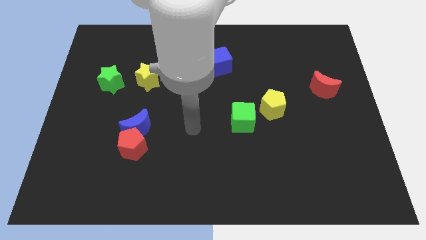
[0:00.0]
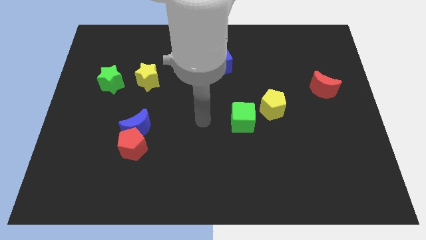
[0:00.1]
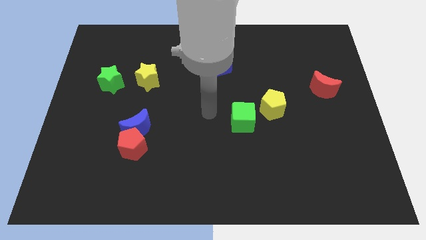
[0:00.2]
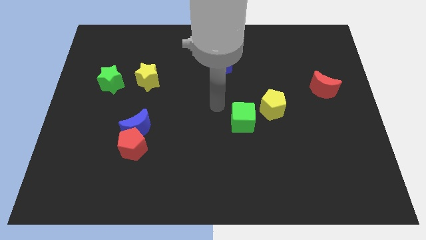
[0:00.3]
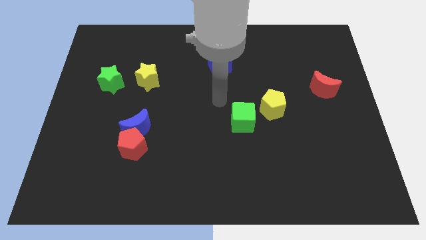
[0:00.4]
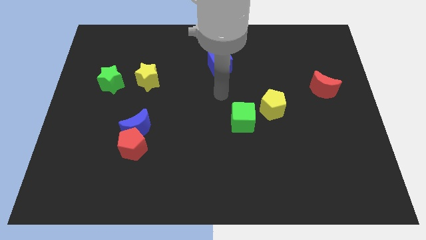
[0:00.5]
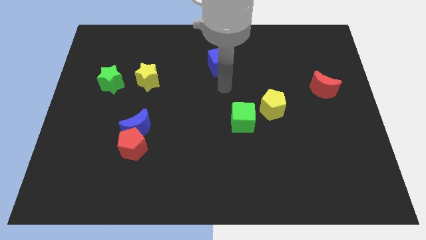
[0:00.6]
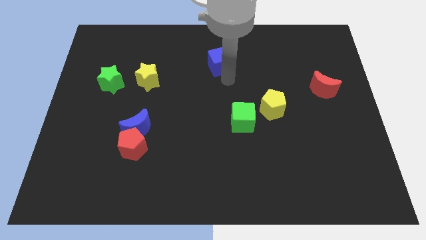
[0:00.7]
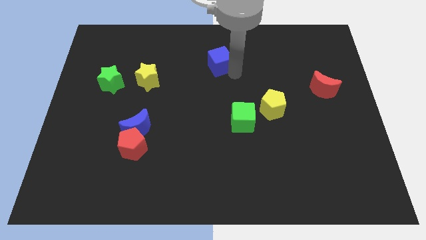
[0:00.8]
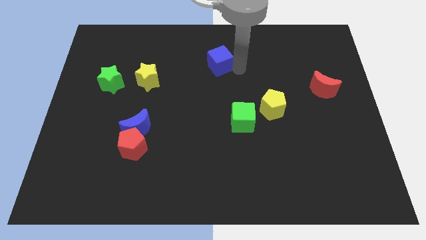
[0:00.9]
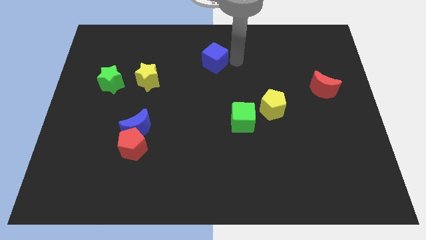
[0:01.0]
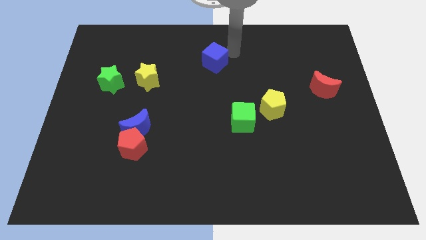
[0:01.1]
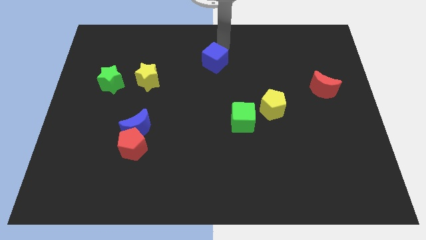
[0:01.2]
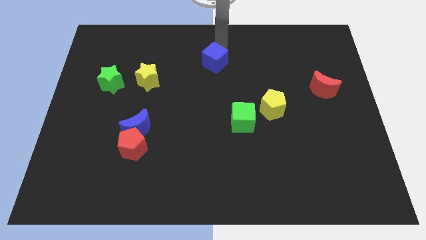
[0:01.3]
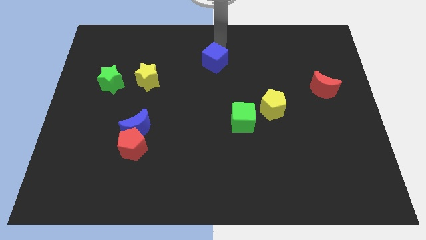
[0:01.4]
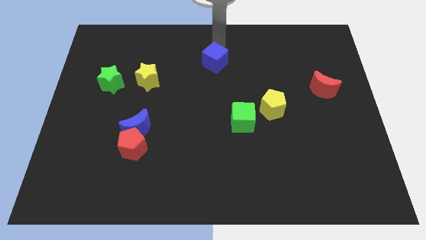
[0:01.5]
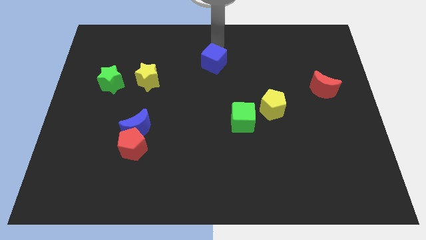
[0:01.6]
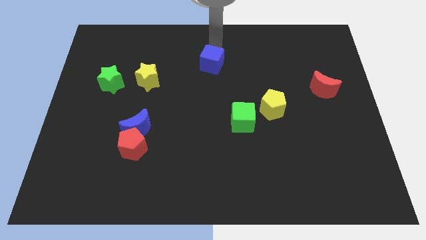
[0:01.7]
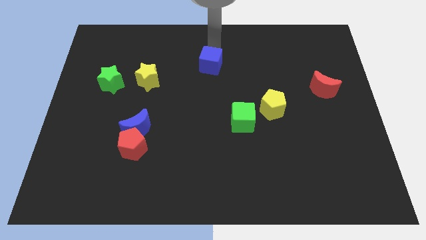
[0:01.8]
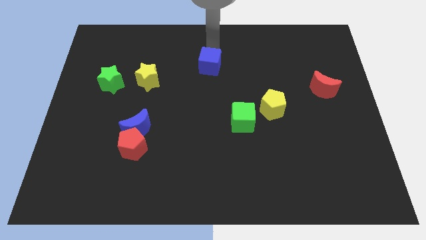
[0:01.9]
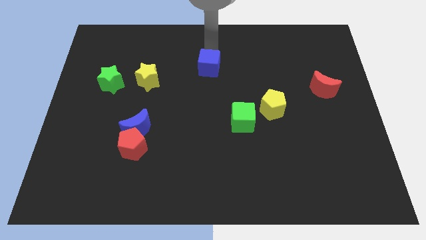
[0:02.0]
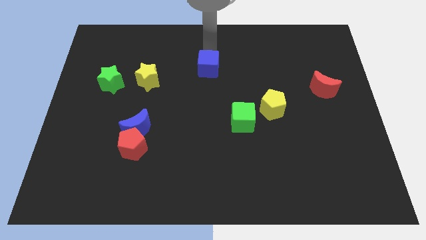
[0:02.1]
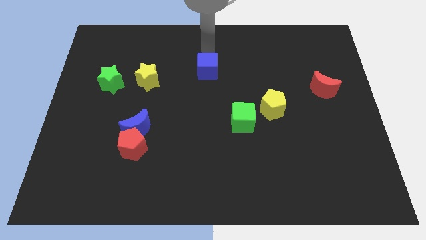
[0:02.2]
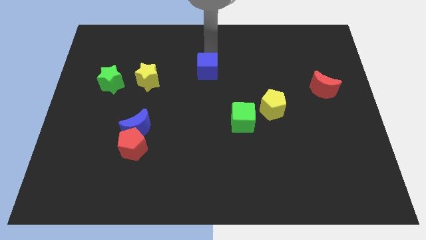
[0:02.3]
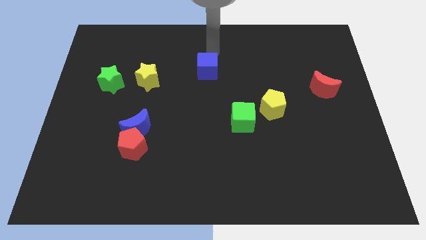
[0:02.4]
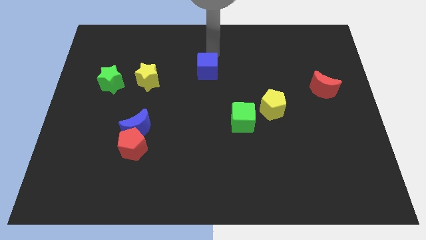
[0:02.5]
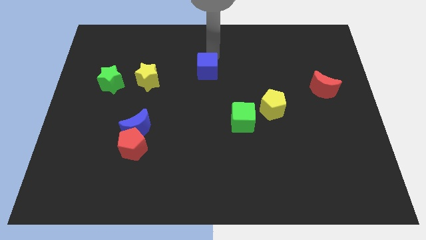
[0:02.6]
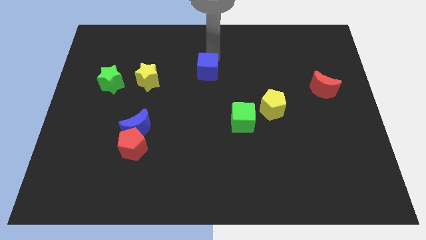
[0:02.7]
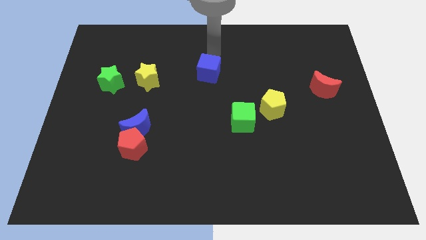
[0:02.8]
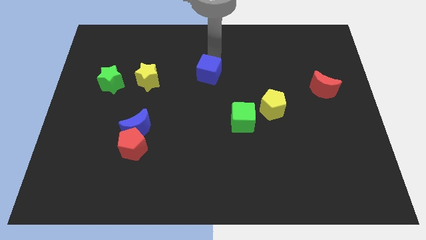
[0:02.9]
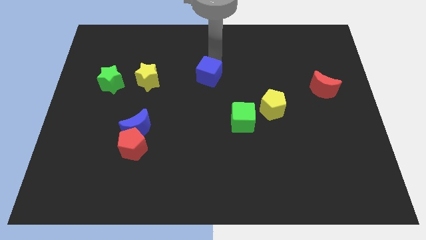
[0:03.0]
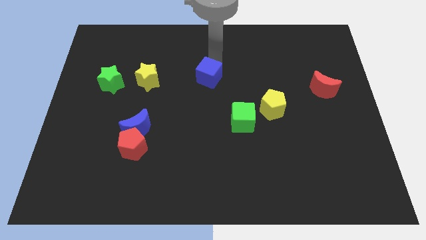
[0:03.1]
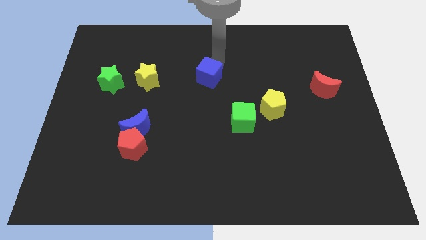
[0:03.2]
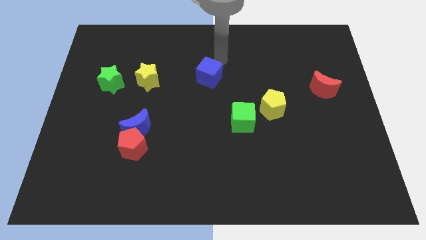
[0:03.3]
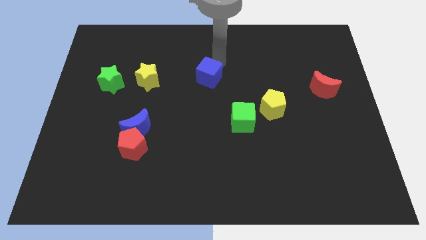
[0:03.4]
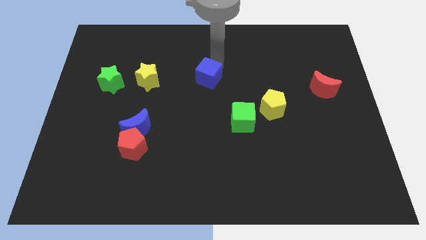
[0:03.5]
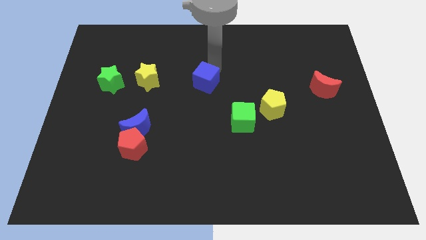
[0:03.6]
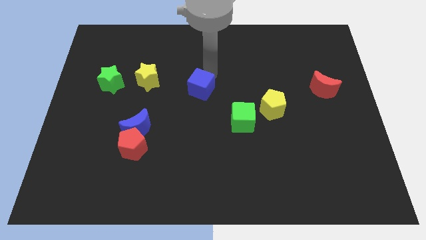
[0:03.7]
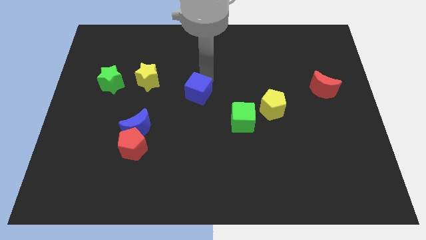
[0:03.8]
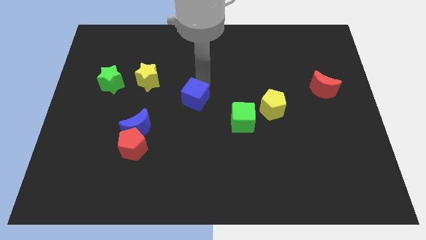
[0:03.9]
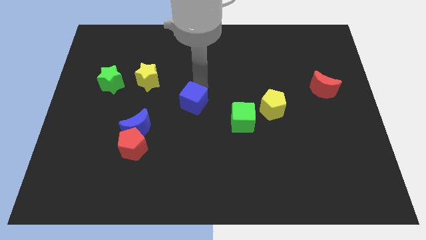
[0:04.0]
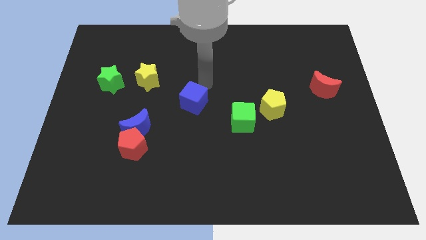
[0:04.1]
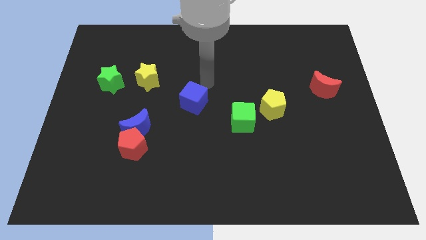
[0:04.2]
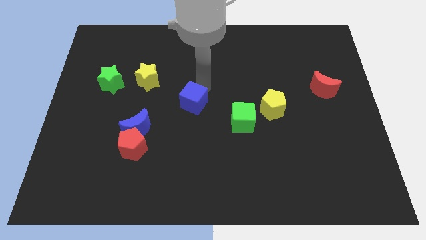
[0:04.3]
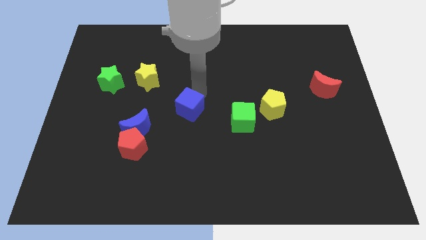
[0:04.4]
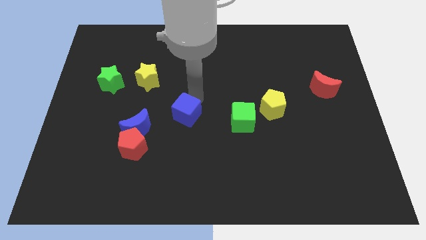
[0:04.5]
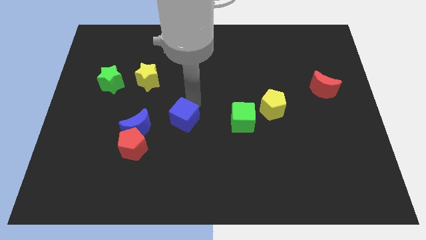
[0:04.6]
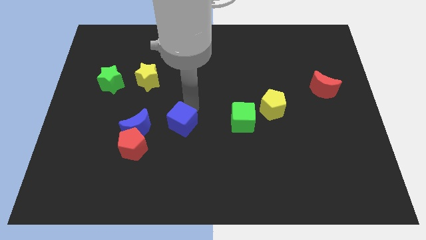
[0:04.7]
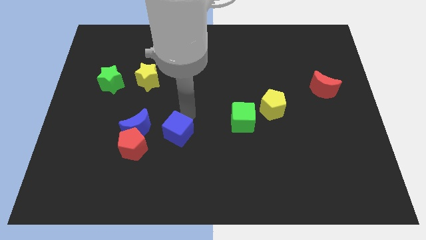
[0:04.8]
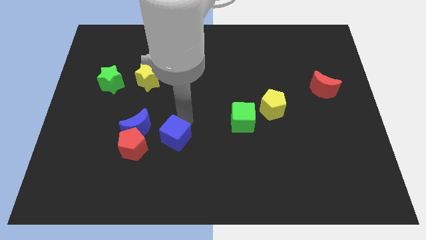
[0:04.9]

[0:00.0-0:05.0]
move the blue cube diagonally down and to the right of the blue moon

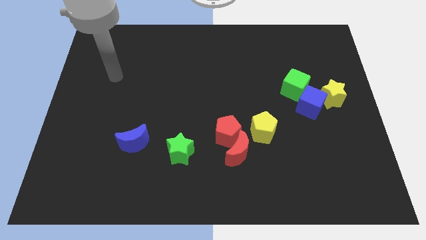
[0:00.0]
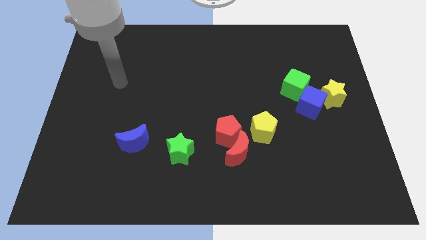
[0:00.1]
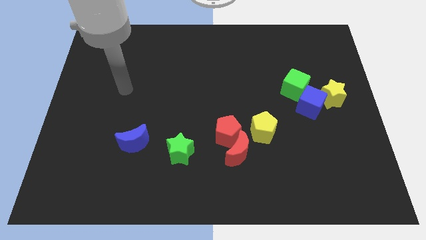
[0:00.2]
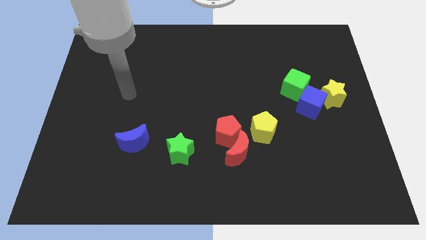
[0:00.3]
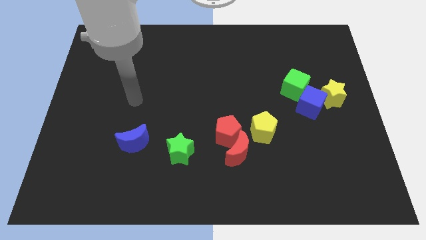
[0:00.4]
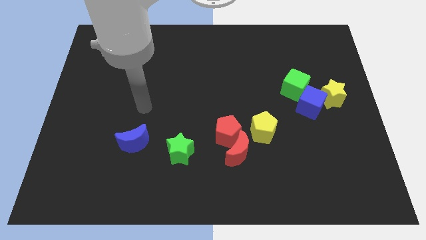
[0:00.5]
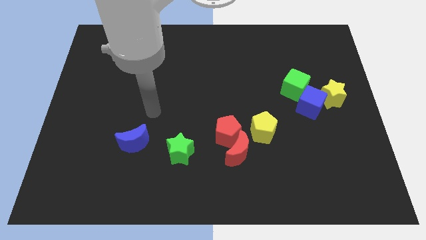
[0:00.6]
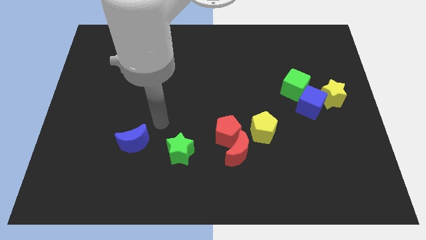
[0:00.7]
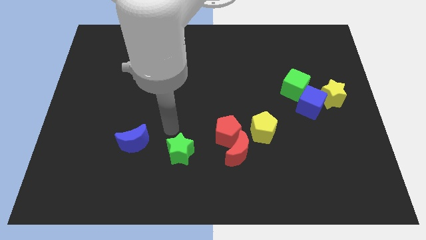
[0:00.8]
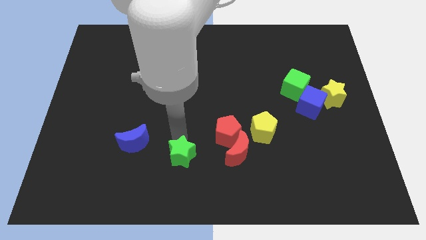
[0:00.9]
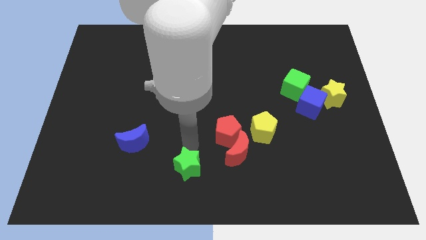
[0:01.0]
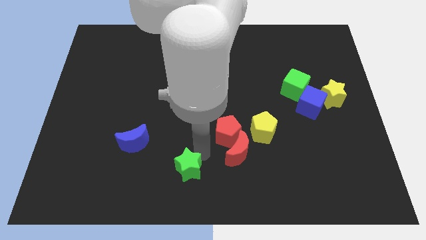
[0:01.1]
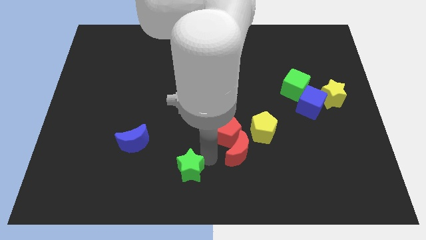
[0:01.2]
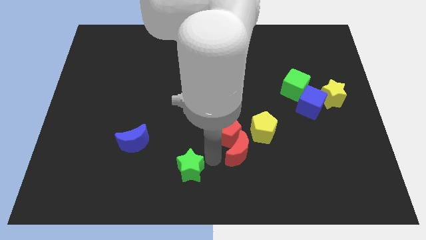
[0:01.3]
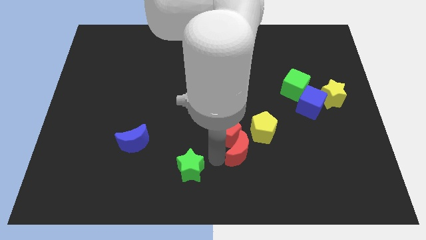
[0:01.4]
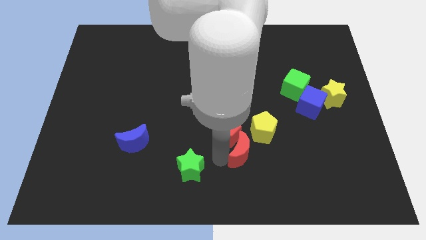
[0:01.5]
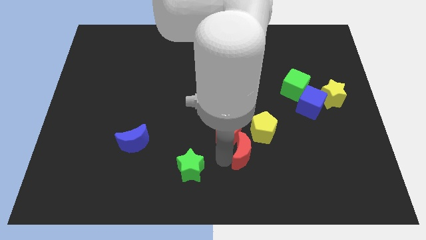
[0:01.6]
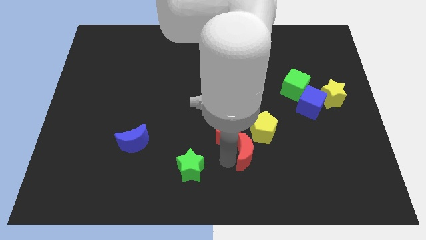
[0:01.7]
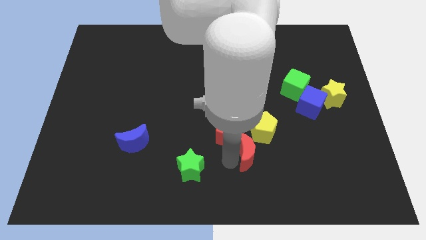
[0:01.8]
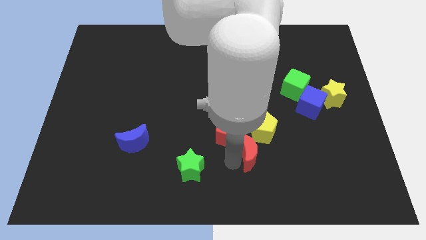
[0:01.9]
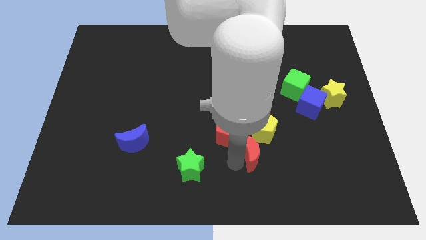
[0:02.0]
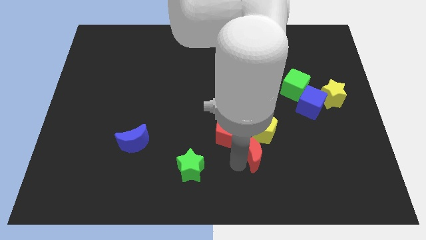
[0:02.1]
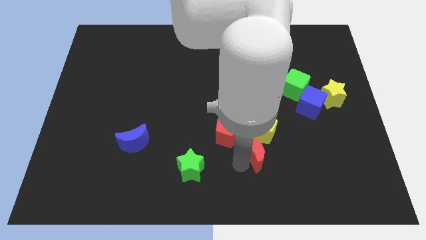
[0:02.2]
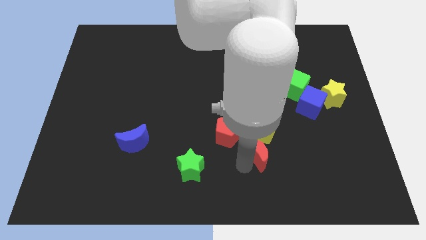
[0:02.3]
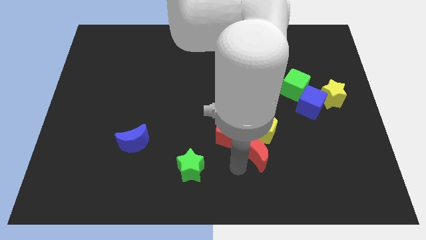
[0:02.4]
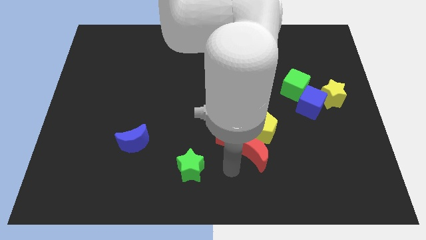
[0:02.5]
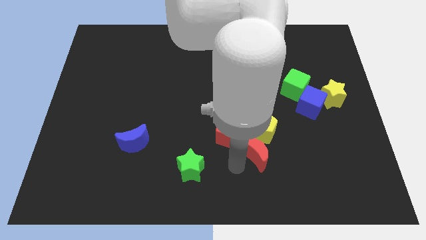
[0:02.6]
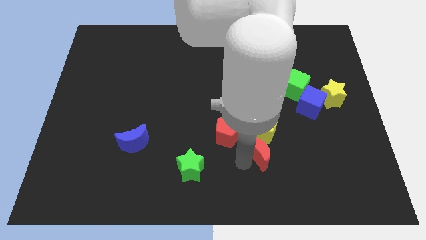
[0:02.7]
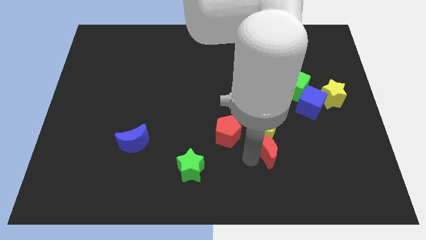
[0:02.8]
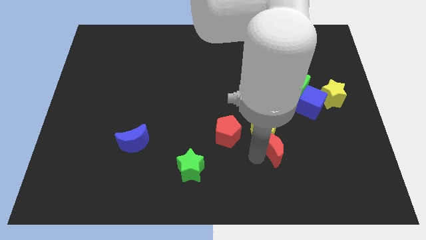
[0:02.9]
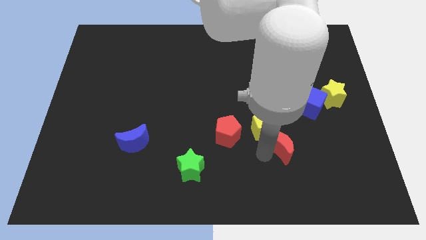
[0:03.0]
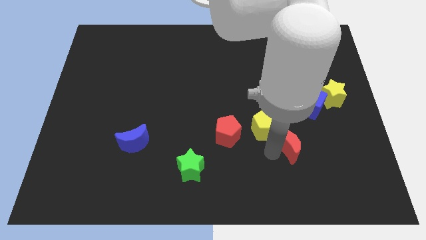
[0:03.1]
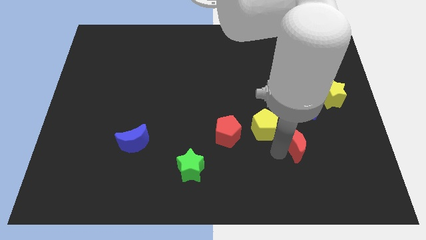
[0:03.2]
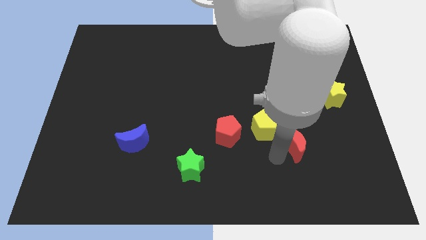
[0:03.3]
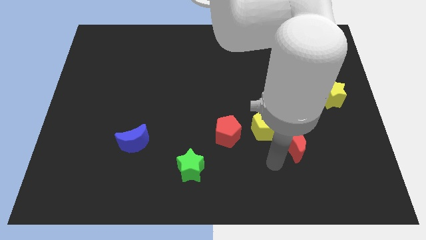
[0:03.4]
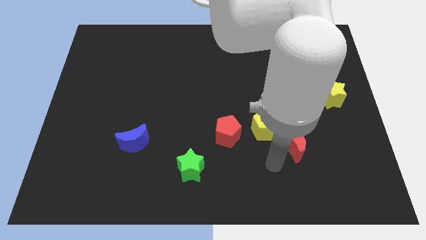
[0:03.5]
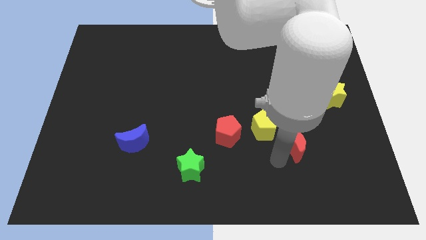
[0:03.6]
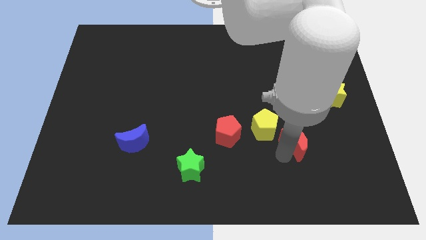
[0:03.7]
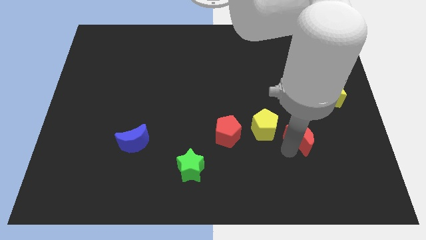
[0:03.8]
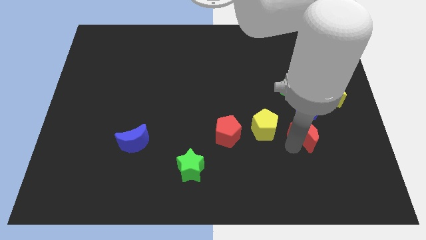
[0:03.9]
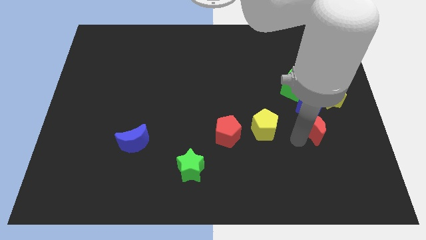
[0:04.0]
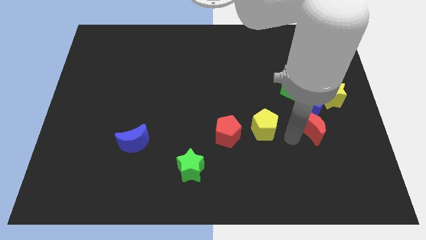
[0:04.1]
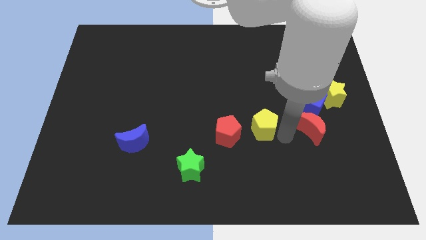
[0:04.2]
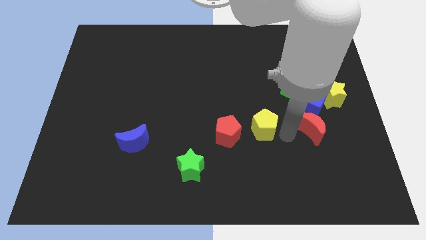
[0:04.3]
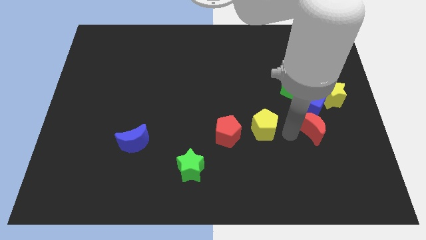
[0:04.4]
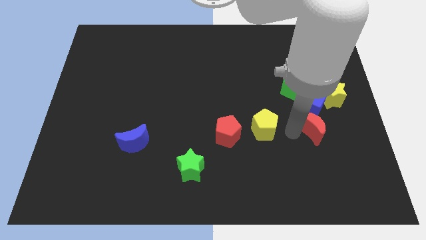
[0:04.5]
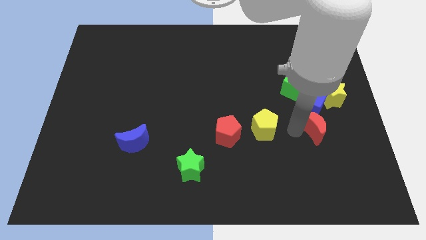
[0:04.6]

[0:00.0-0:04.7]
put the red moon diagonally down and to the right of the blue cube
